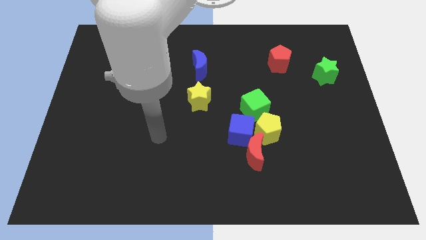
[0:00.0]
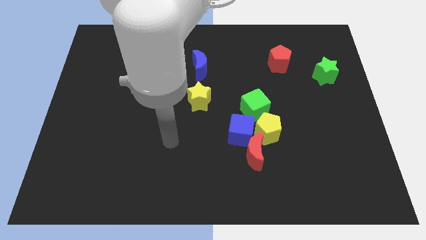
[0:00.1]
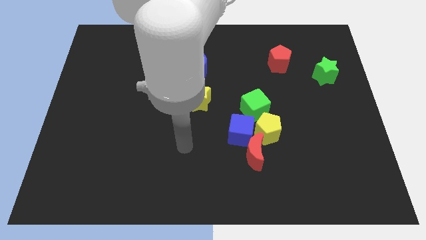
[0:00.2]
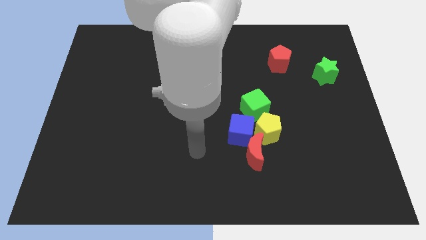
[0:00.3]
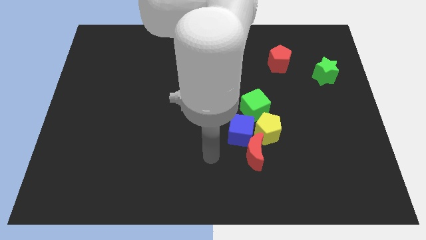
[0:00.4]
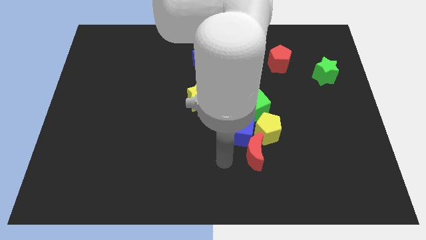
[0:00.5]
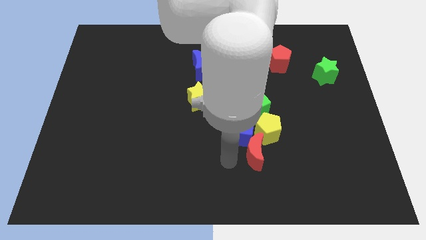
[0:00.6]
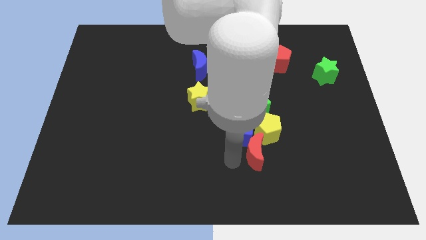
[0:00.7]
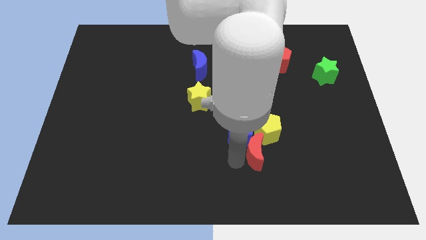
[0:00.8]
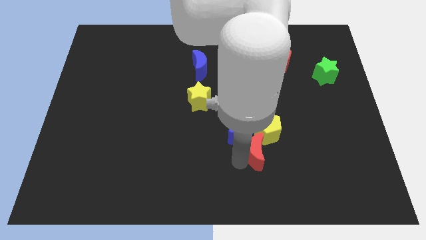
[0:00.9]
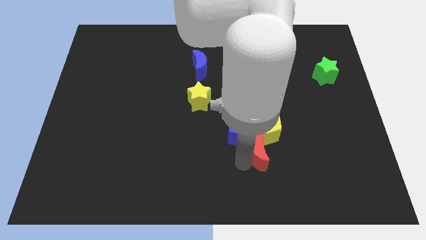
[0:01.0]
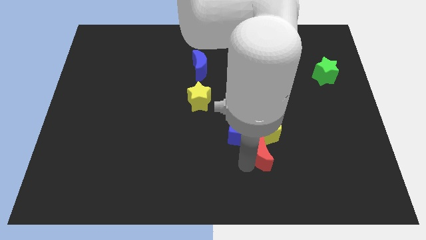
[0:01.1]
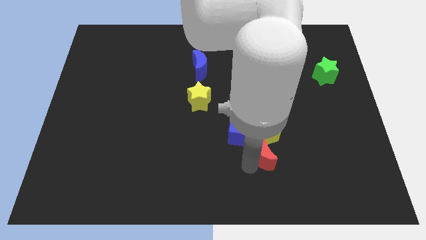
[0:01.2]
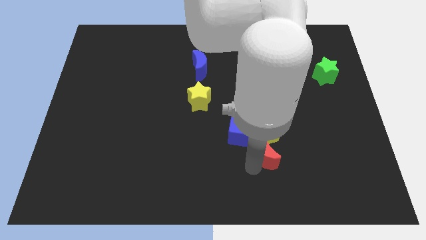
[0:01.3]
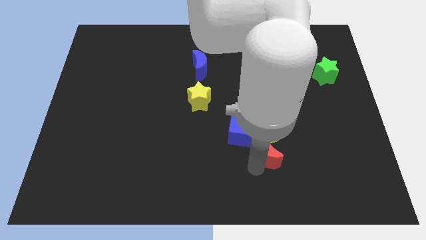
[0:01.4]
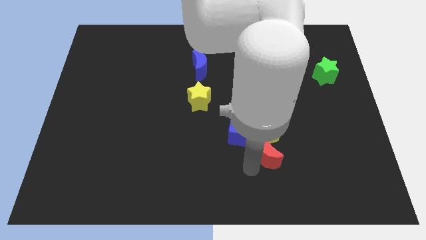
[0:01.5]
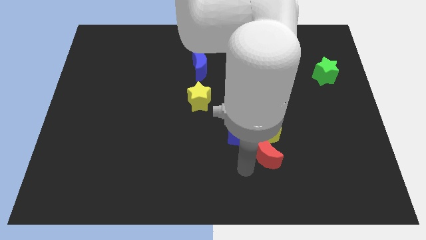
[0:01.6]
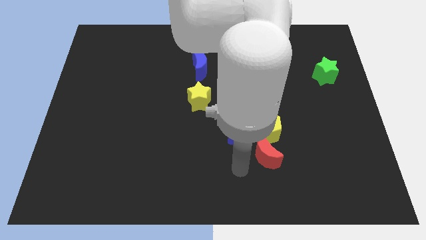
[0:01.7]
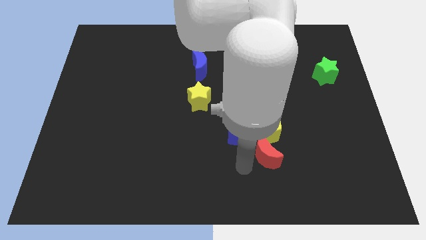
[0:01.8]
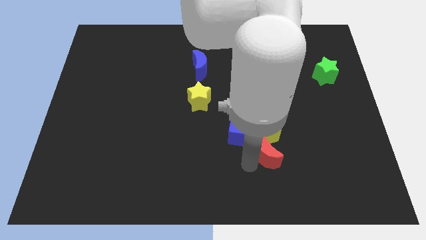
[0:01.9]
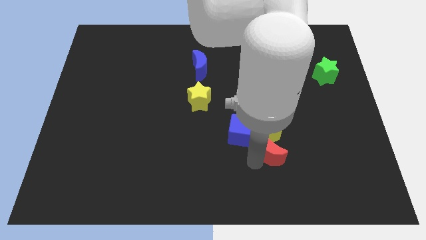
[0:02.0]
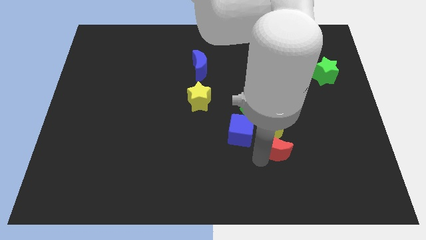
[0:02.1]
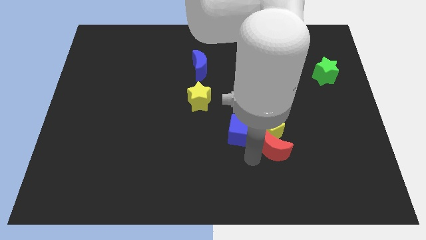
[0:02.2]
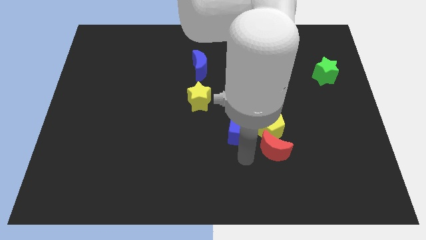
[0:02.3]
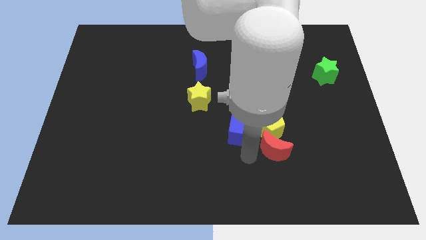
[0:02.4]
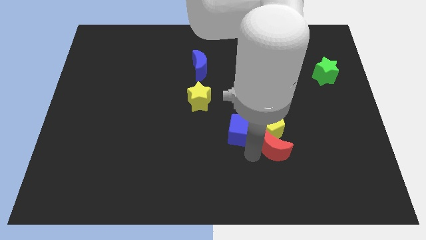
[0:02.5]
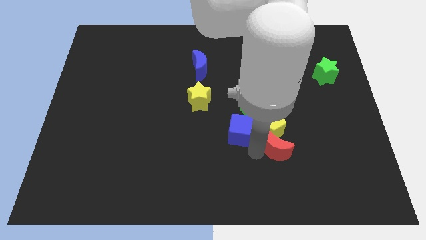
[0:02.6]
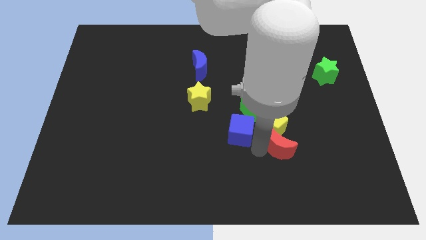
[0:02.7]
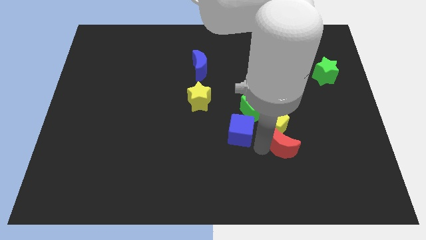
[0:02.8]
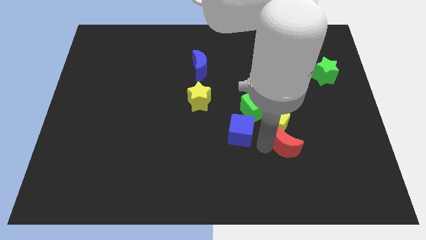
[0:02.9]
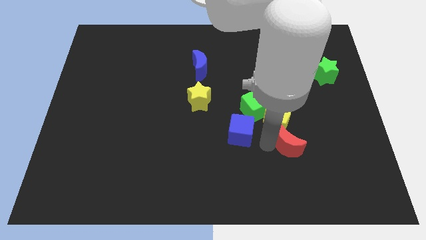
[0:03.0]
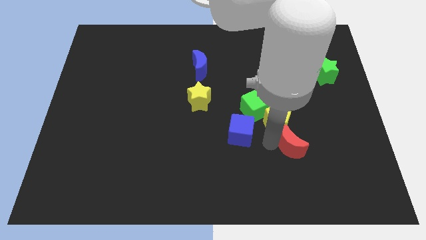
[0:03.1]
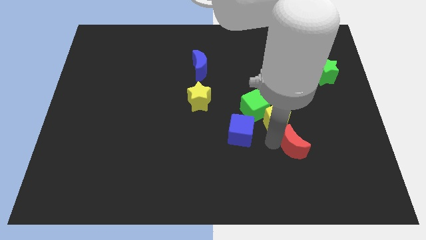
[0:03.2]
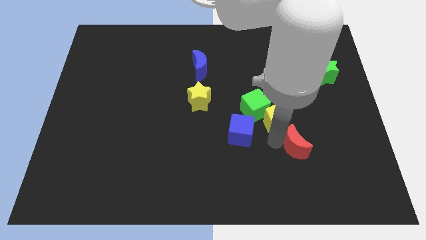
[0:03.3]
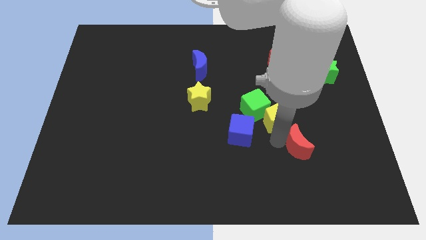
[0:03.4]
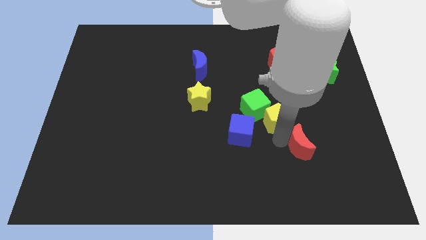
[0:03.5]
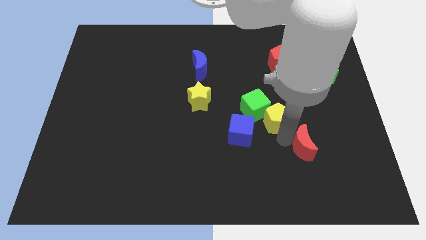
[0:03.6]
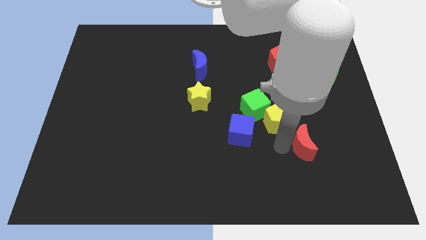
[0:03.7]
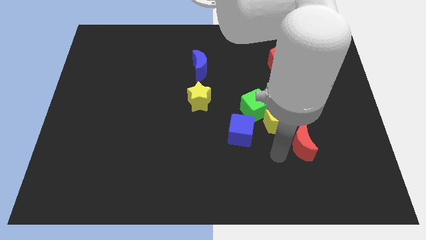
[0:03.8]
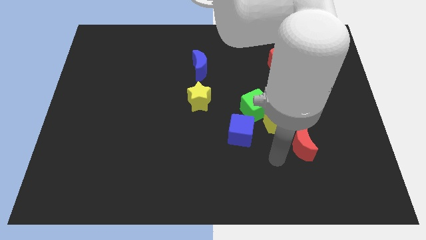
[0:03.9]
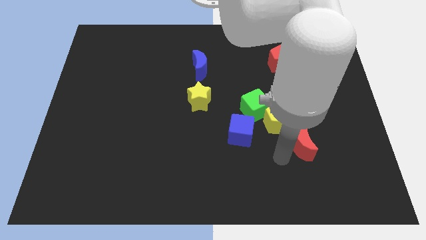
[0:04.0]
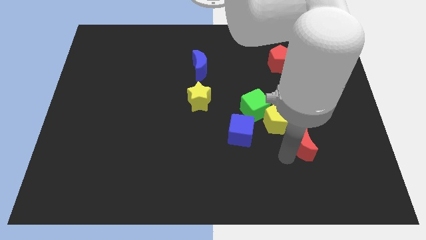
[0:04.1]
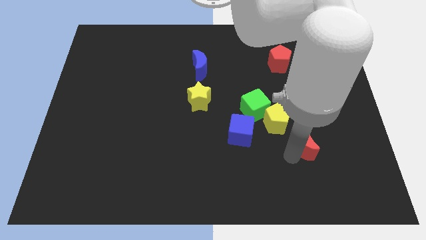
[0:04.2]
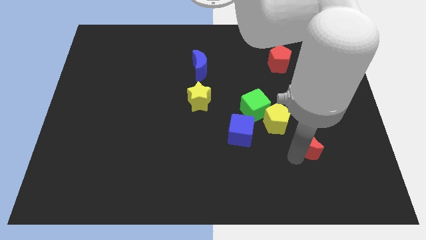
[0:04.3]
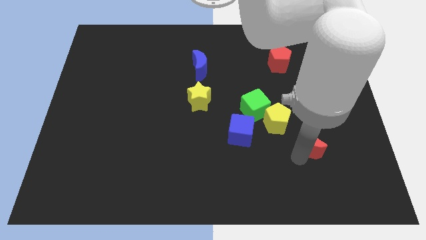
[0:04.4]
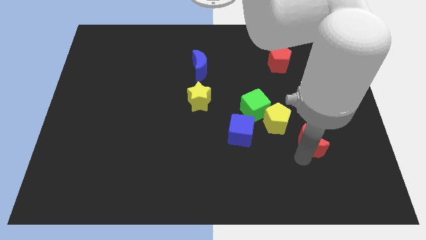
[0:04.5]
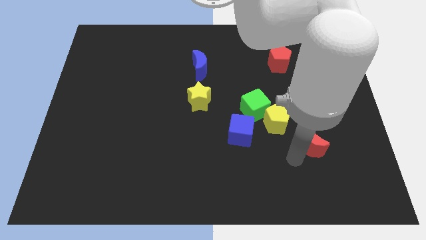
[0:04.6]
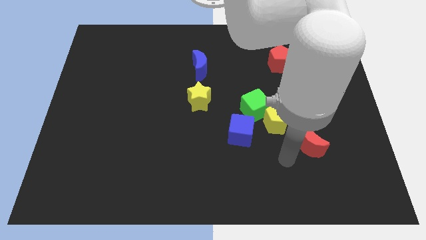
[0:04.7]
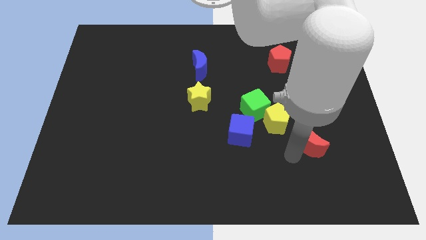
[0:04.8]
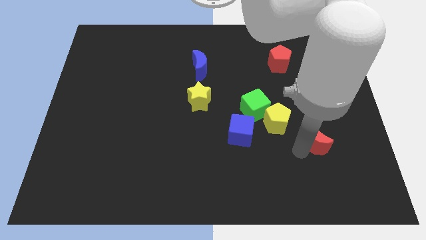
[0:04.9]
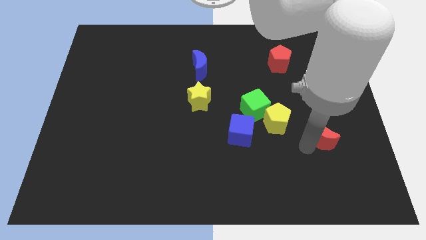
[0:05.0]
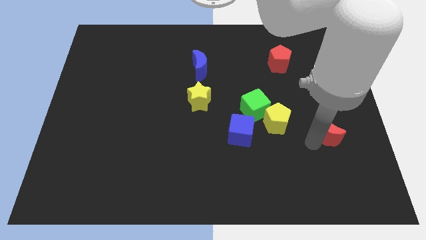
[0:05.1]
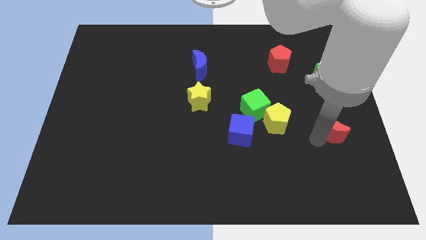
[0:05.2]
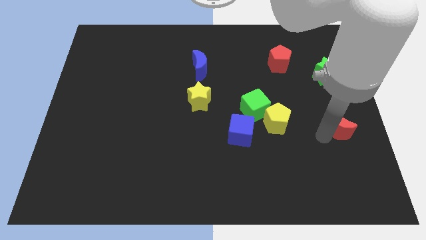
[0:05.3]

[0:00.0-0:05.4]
put the red moon to the right side

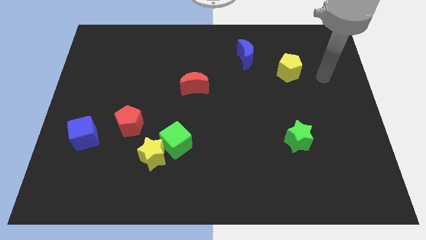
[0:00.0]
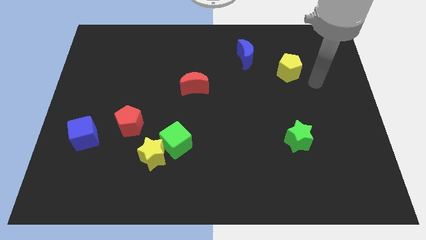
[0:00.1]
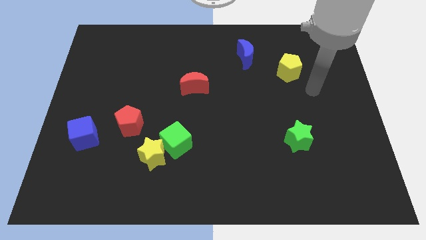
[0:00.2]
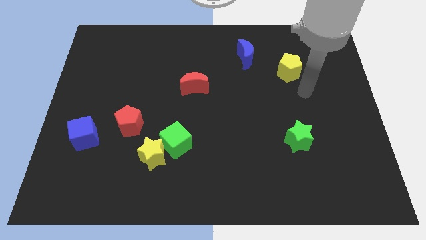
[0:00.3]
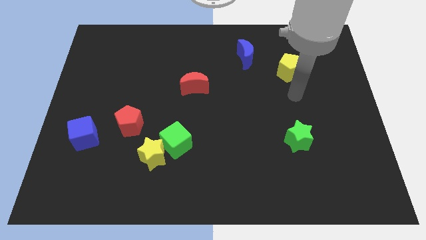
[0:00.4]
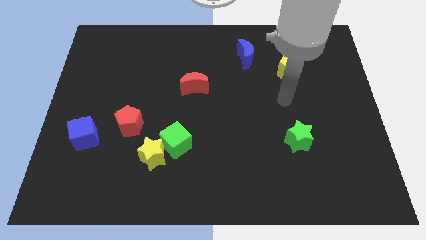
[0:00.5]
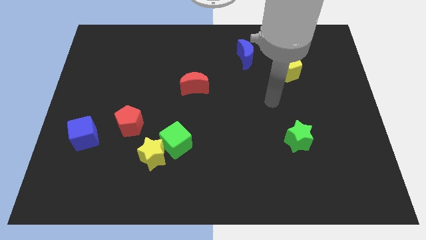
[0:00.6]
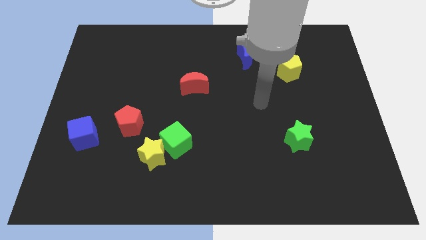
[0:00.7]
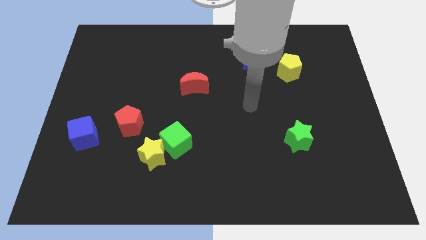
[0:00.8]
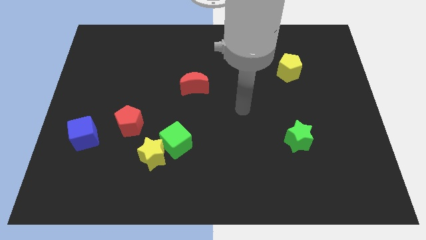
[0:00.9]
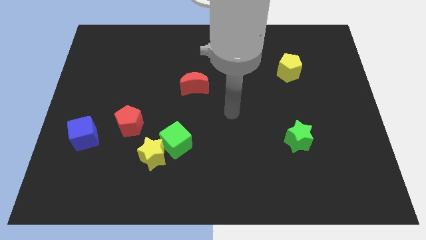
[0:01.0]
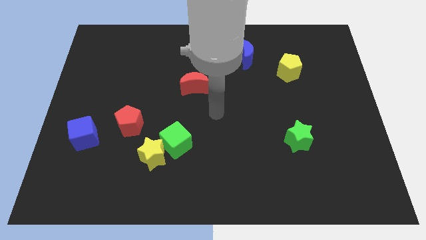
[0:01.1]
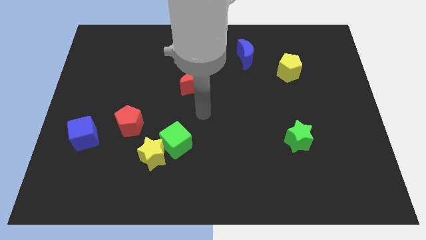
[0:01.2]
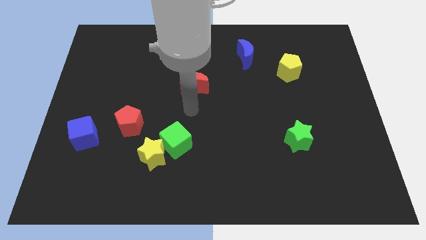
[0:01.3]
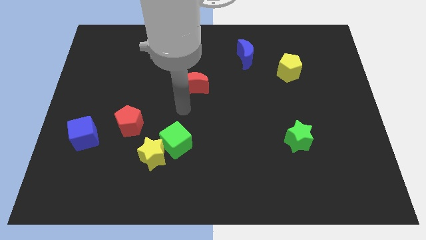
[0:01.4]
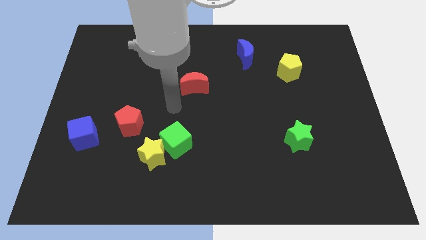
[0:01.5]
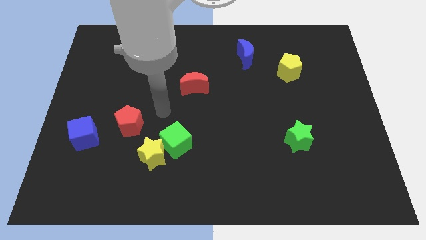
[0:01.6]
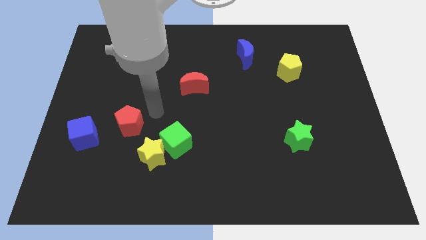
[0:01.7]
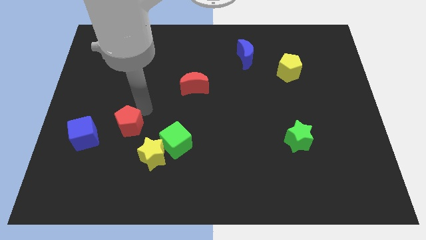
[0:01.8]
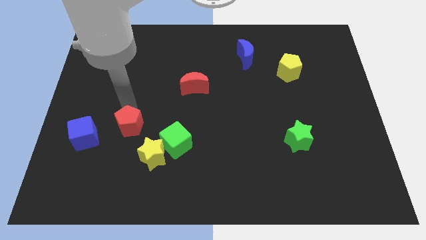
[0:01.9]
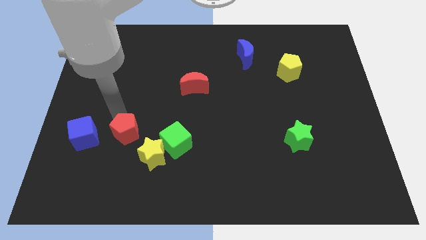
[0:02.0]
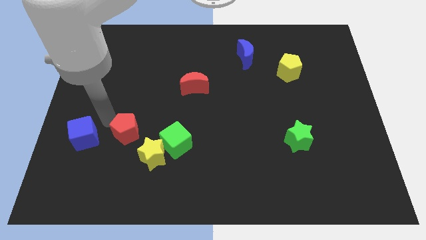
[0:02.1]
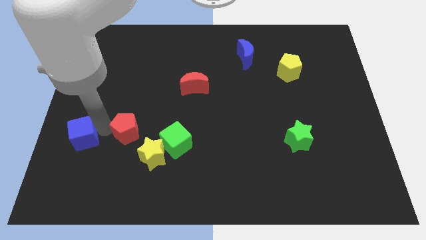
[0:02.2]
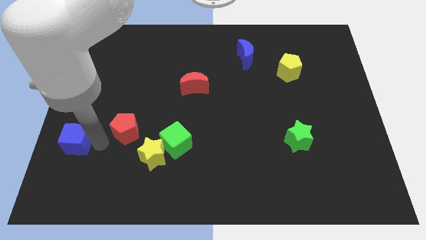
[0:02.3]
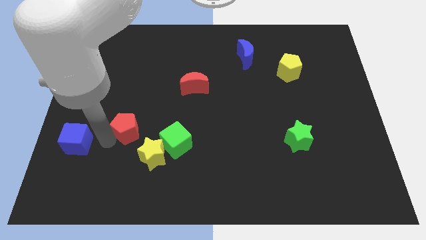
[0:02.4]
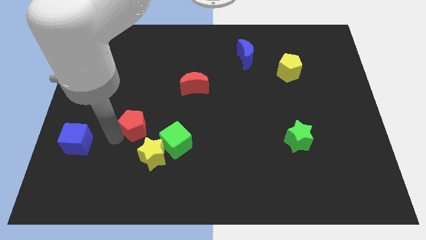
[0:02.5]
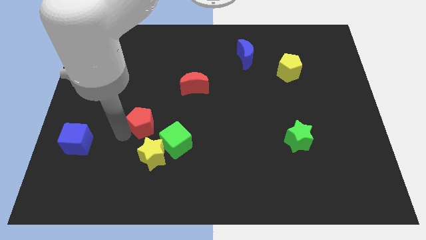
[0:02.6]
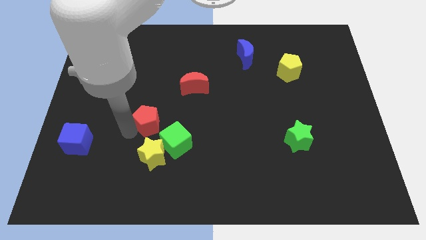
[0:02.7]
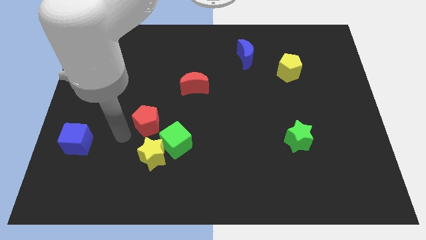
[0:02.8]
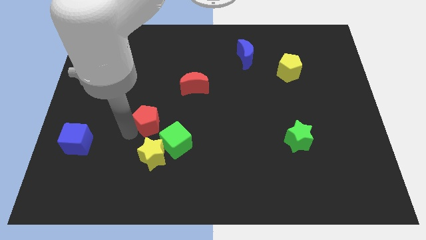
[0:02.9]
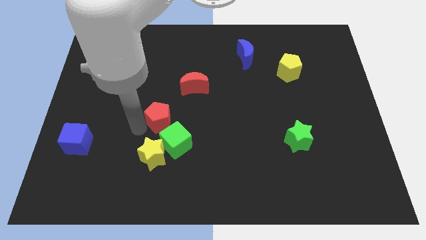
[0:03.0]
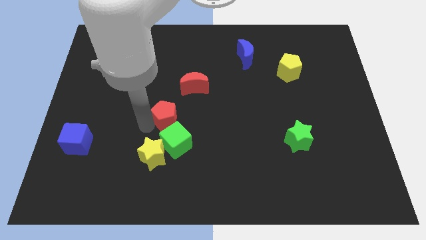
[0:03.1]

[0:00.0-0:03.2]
put the red pentagon to the middle
